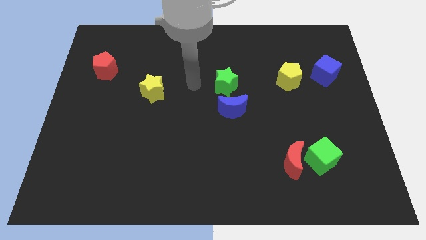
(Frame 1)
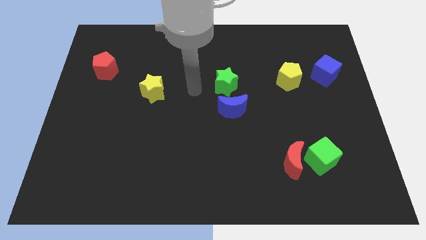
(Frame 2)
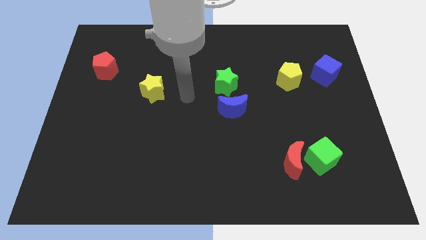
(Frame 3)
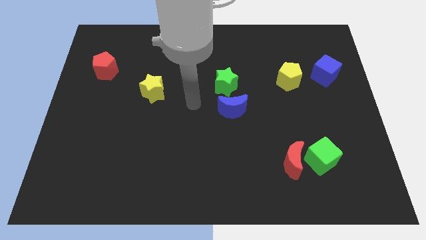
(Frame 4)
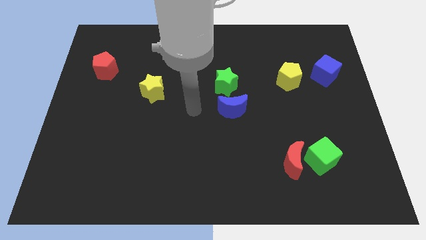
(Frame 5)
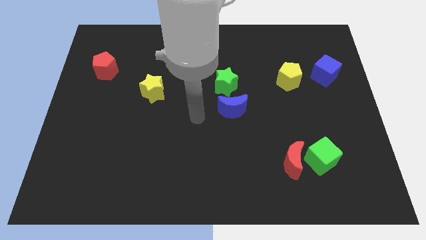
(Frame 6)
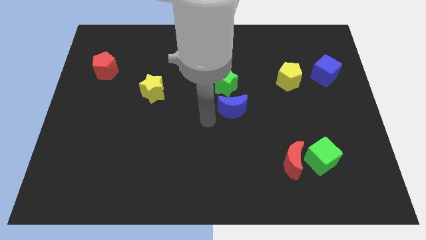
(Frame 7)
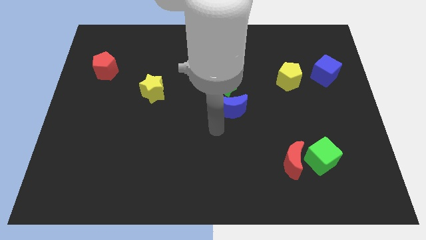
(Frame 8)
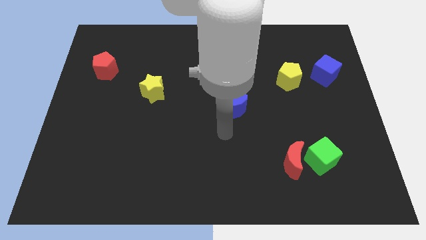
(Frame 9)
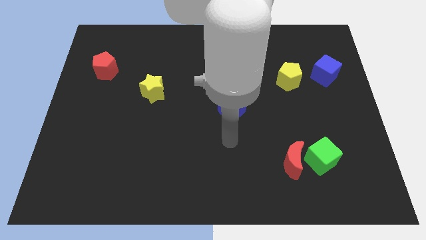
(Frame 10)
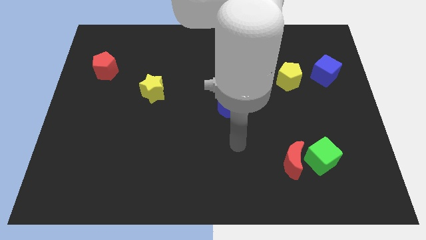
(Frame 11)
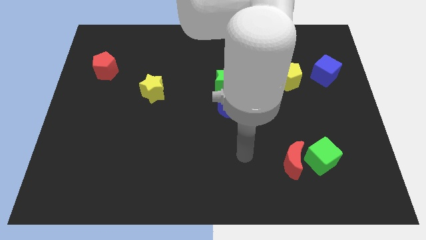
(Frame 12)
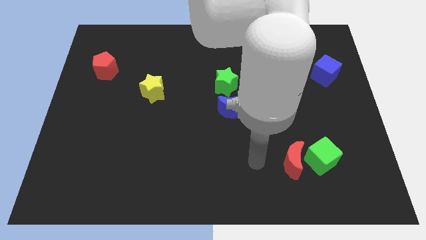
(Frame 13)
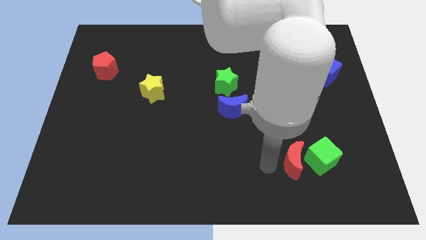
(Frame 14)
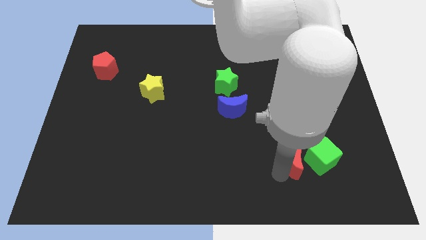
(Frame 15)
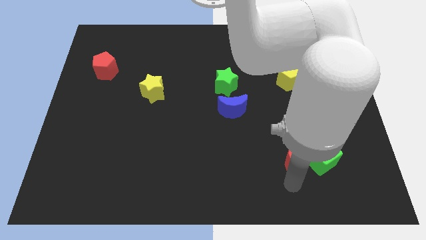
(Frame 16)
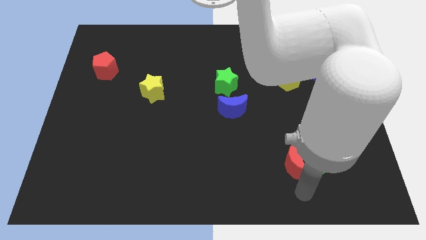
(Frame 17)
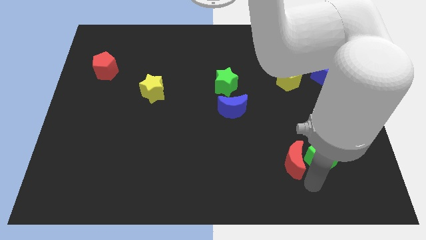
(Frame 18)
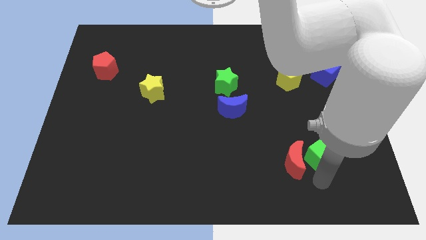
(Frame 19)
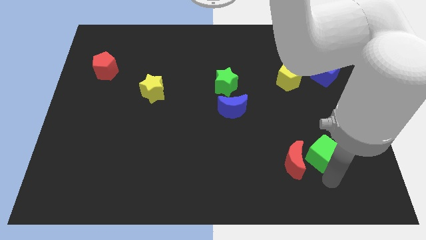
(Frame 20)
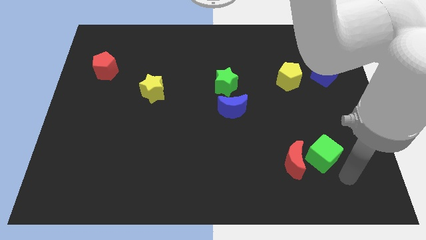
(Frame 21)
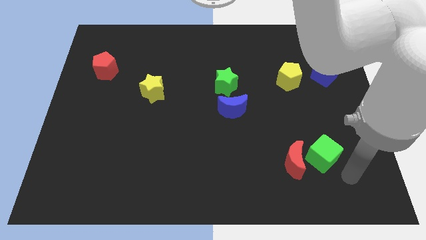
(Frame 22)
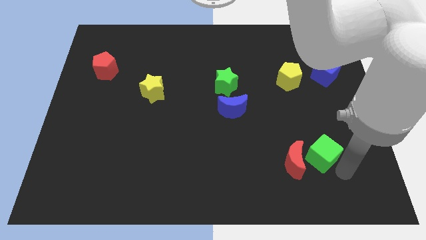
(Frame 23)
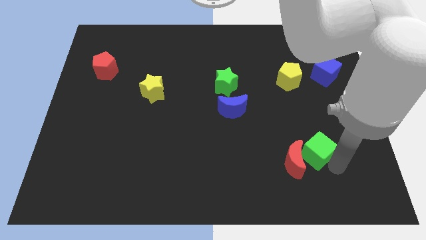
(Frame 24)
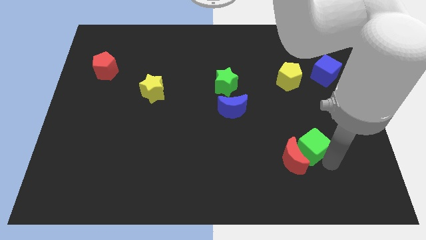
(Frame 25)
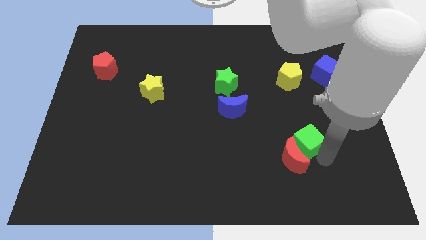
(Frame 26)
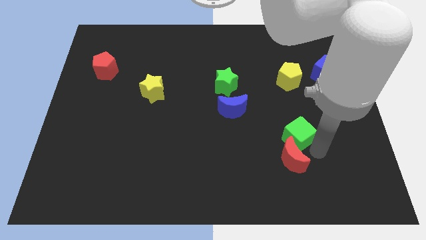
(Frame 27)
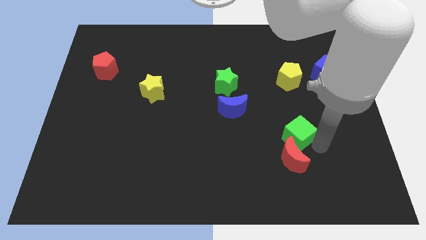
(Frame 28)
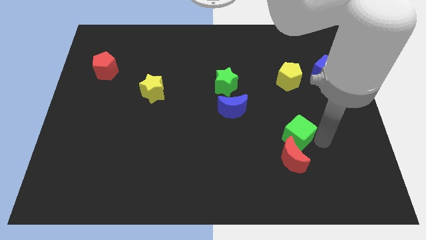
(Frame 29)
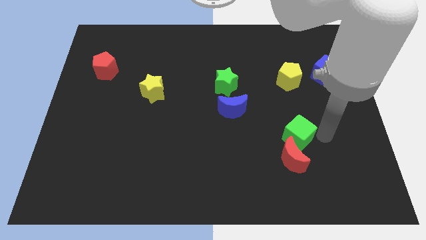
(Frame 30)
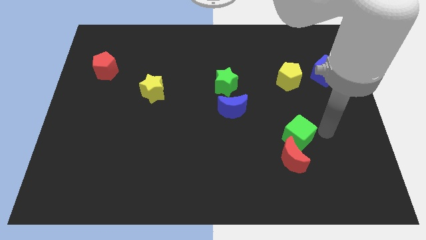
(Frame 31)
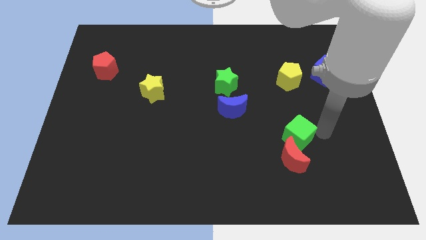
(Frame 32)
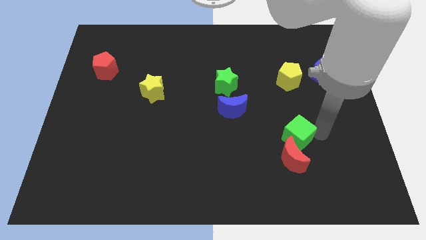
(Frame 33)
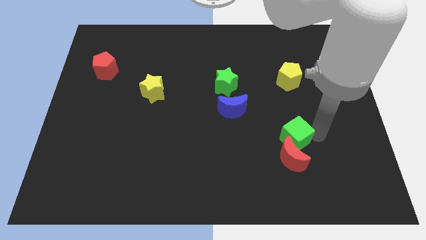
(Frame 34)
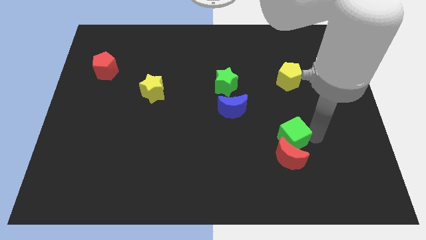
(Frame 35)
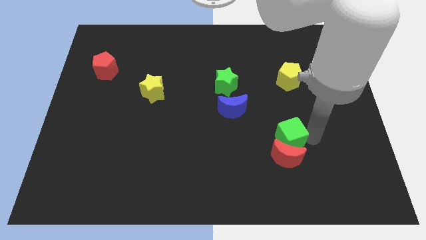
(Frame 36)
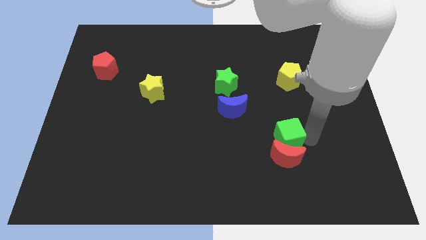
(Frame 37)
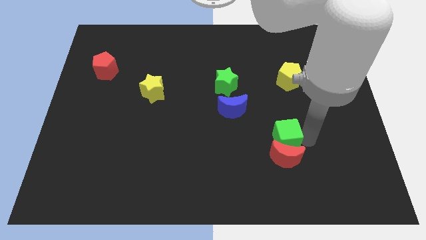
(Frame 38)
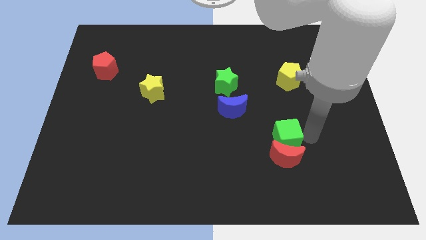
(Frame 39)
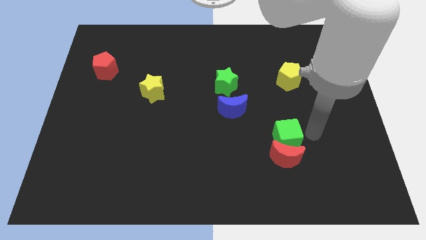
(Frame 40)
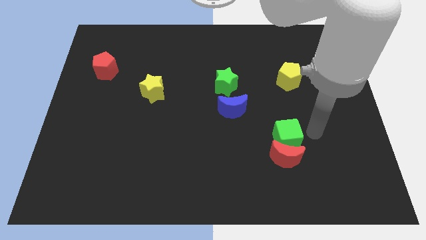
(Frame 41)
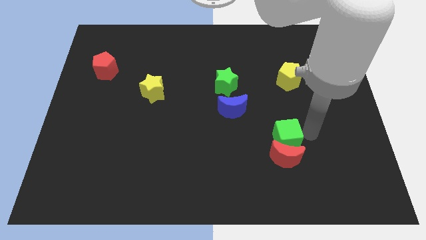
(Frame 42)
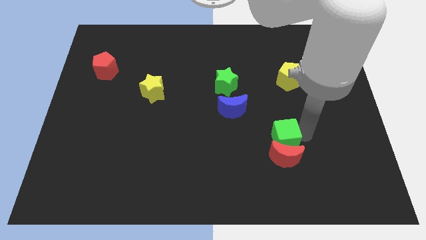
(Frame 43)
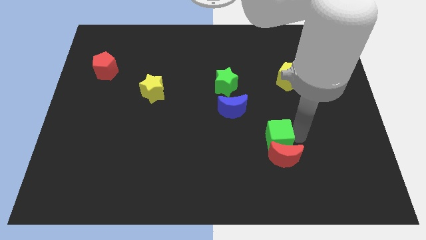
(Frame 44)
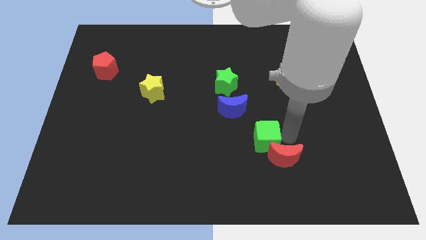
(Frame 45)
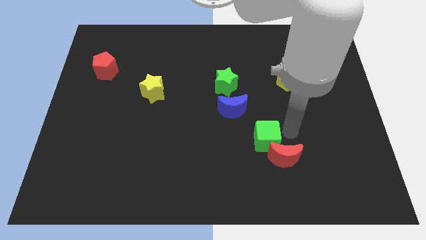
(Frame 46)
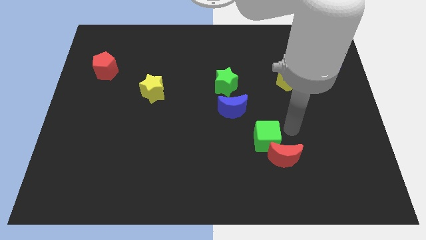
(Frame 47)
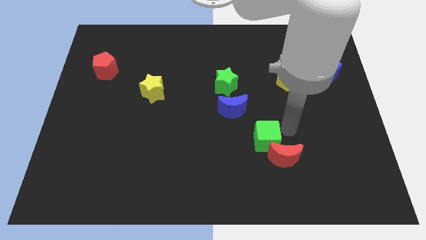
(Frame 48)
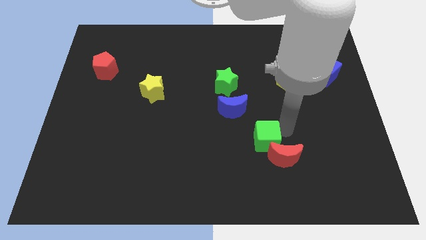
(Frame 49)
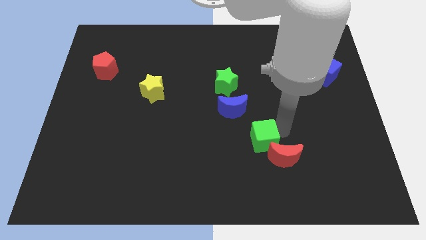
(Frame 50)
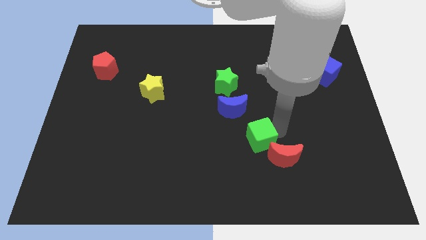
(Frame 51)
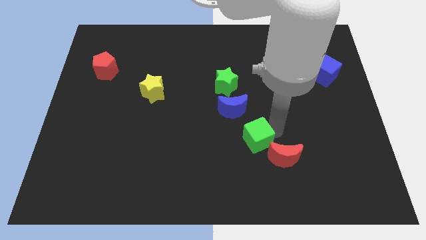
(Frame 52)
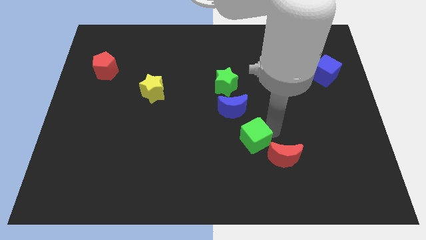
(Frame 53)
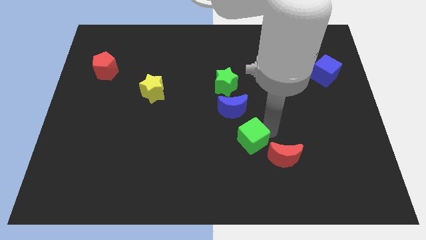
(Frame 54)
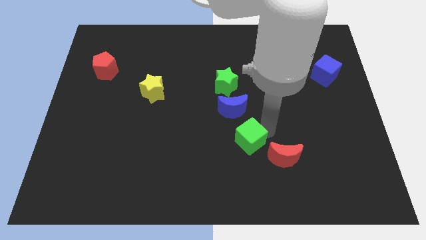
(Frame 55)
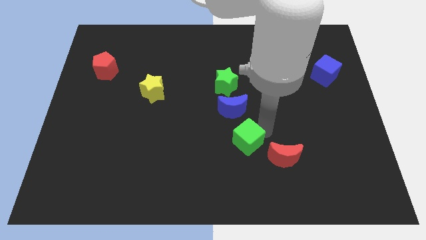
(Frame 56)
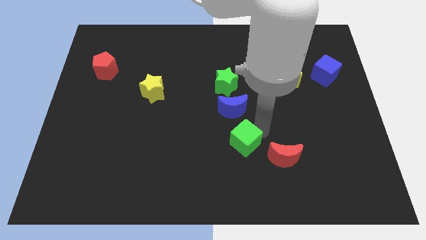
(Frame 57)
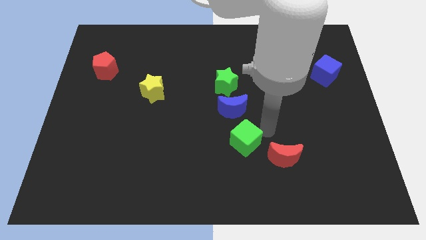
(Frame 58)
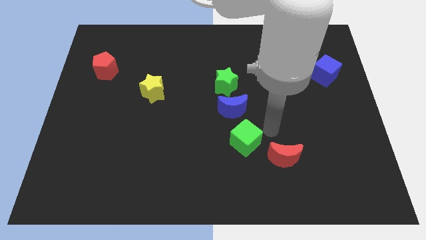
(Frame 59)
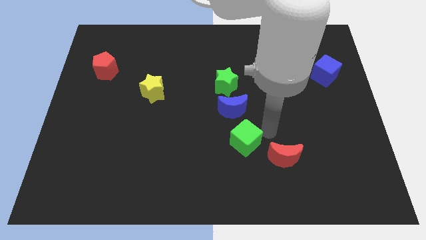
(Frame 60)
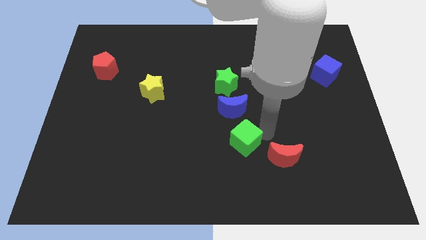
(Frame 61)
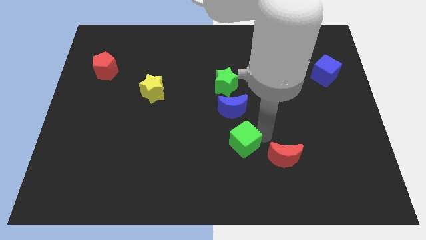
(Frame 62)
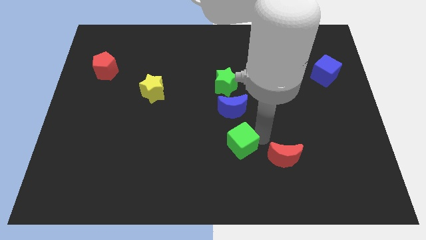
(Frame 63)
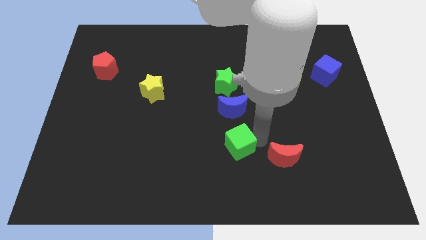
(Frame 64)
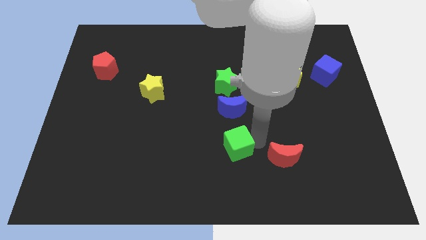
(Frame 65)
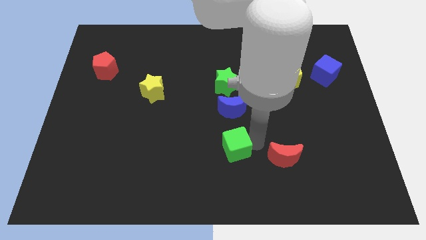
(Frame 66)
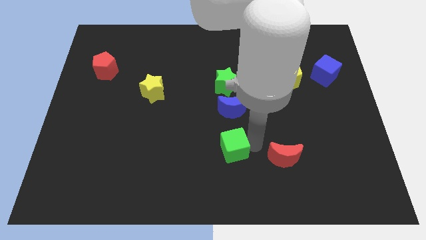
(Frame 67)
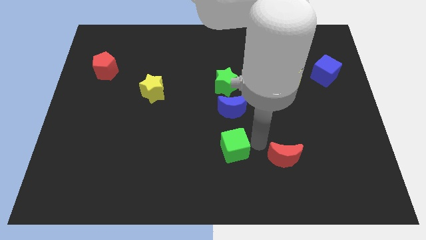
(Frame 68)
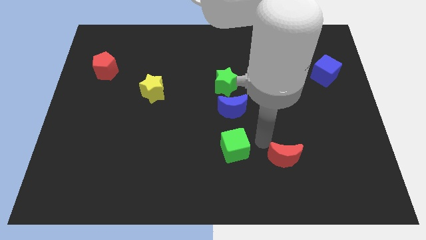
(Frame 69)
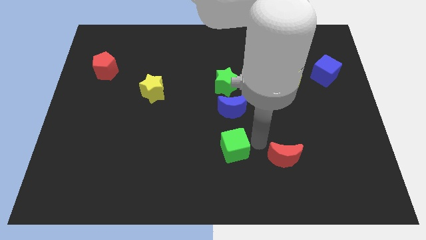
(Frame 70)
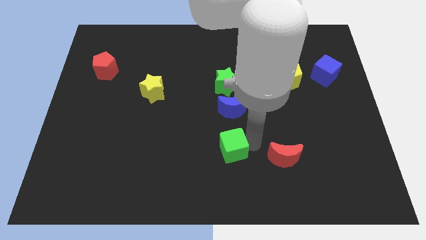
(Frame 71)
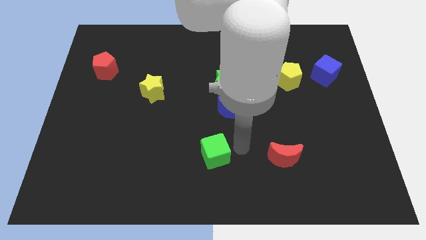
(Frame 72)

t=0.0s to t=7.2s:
push the green cube left

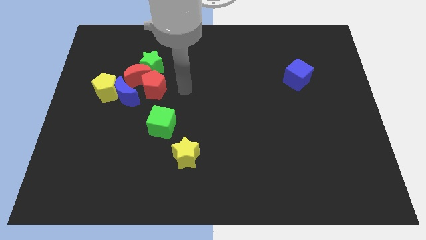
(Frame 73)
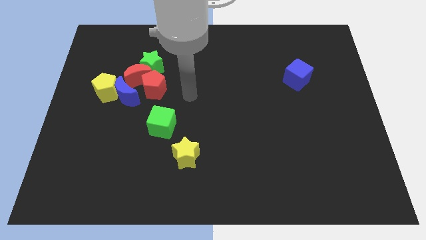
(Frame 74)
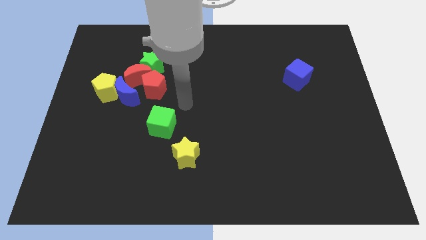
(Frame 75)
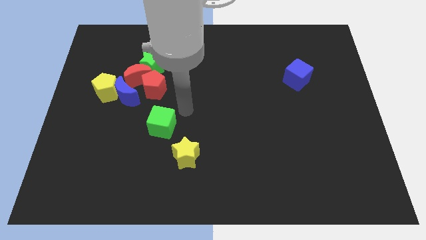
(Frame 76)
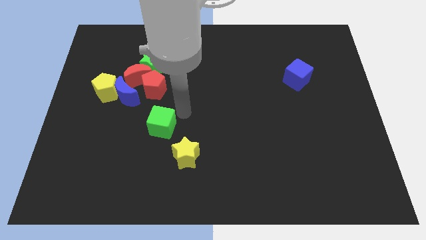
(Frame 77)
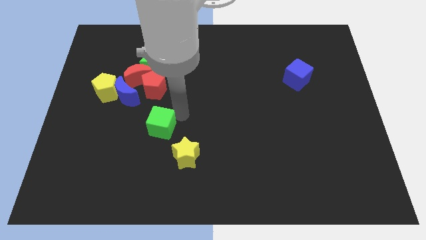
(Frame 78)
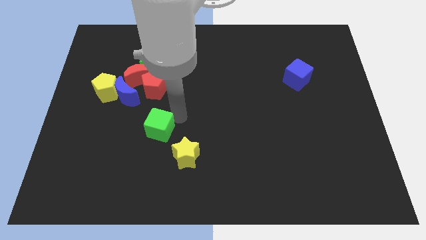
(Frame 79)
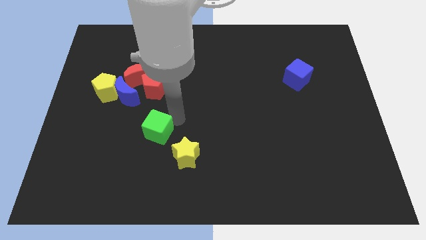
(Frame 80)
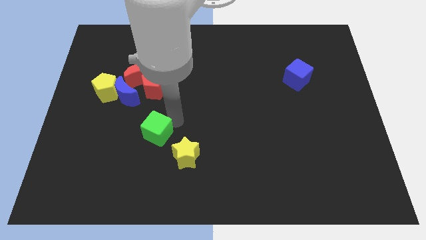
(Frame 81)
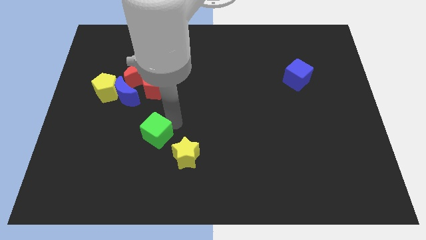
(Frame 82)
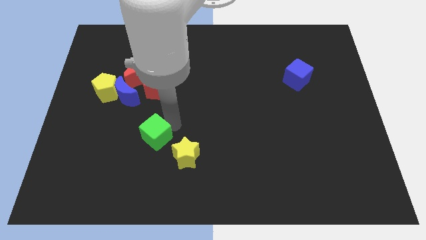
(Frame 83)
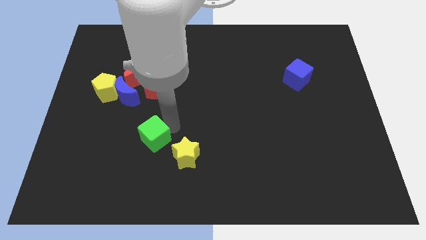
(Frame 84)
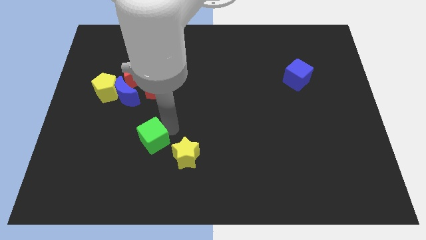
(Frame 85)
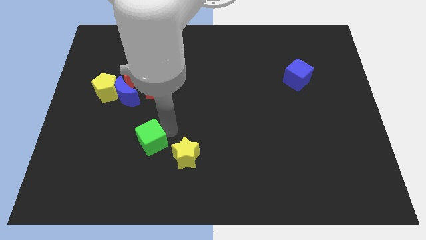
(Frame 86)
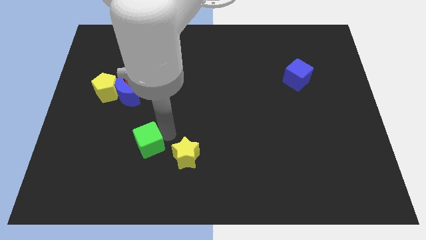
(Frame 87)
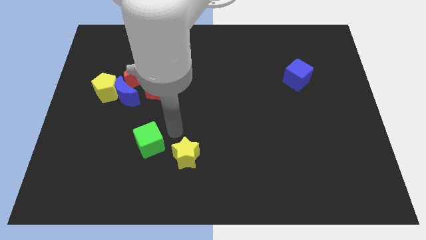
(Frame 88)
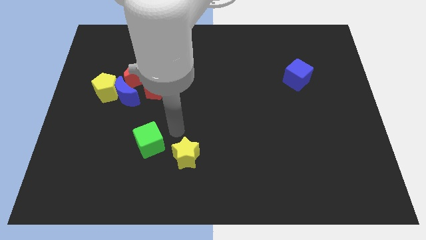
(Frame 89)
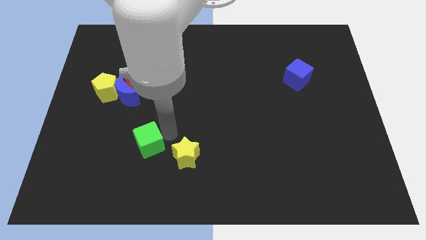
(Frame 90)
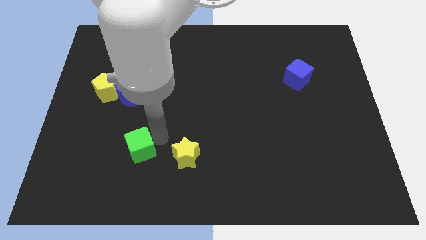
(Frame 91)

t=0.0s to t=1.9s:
move the green cube a little bit diagonally down and to the left
